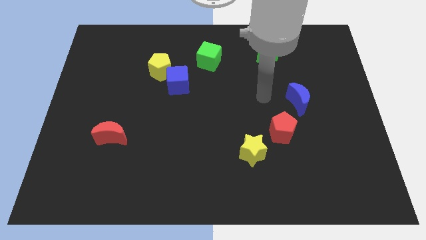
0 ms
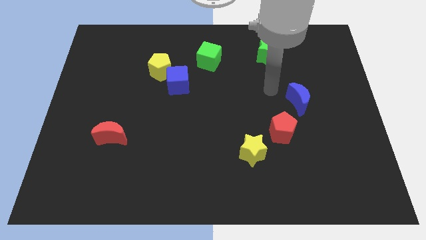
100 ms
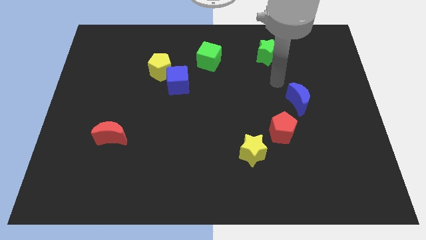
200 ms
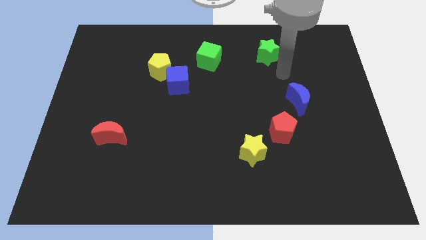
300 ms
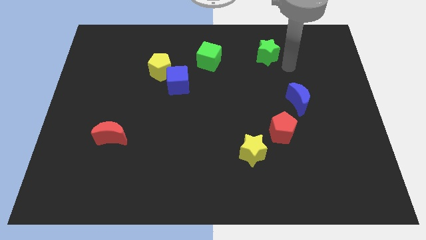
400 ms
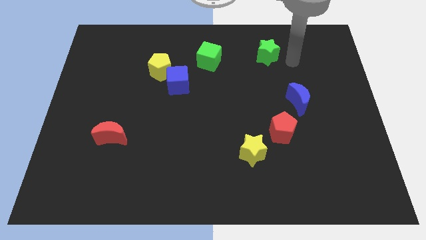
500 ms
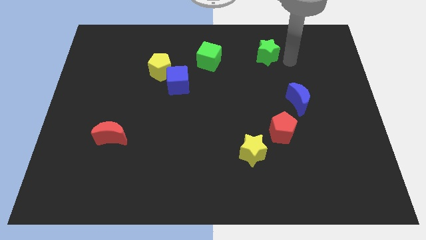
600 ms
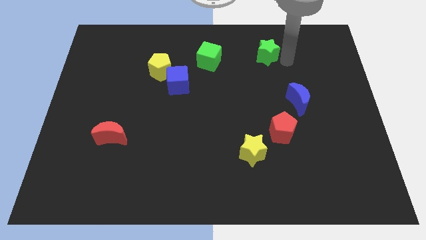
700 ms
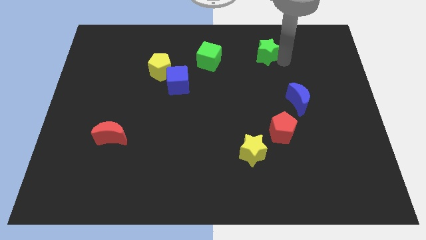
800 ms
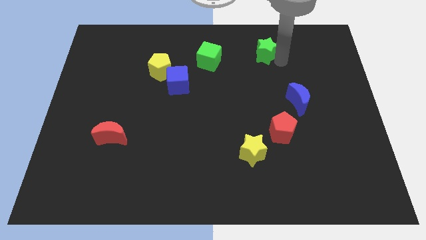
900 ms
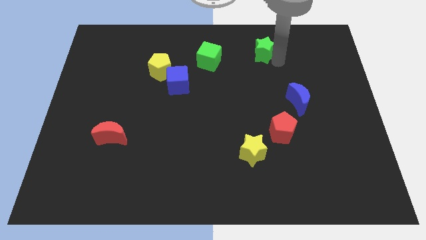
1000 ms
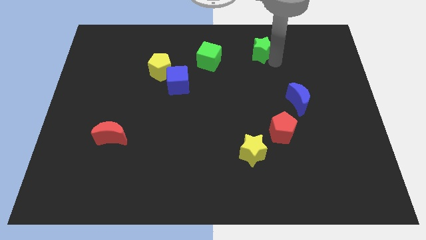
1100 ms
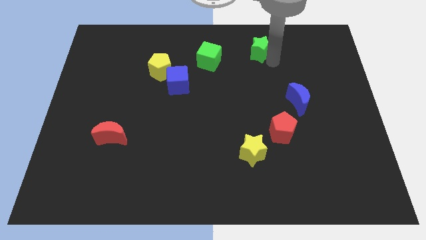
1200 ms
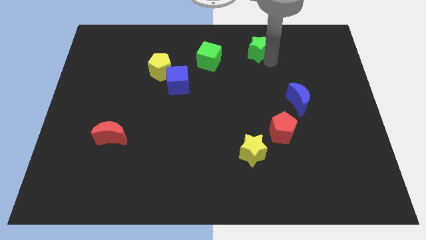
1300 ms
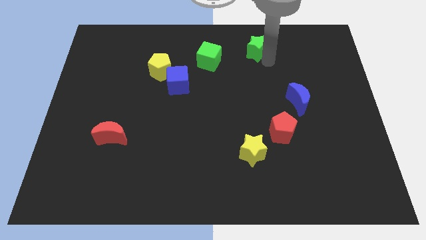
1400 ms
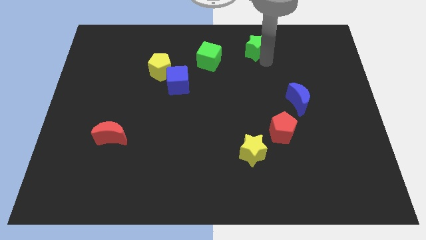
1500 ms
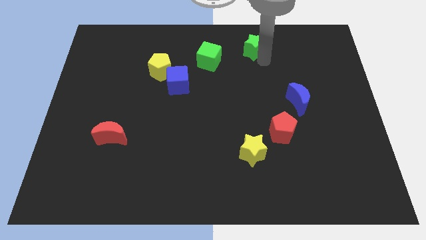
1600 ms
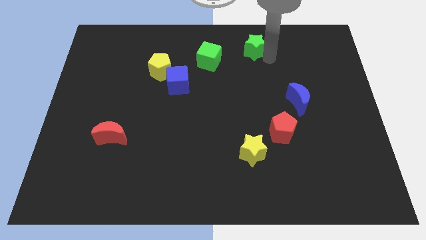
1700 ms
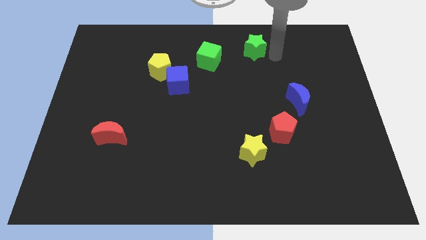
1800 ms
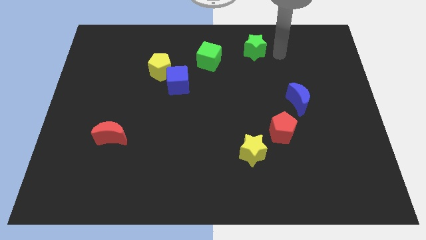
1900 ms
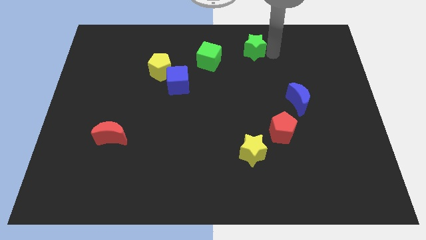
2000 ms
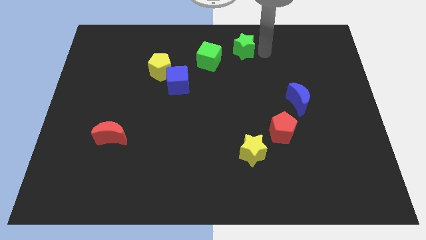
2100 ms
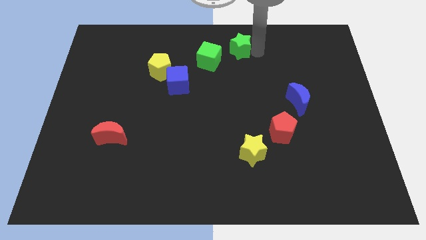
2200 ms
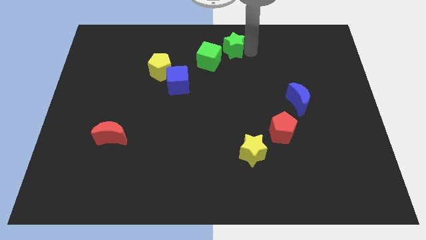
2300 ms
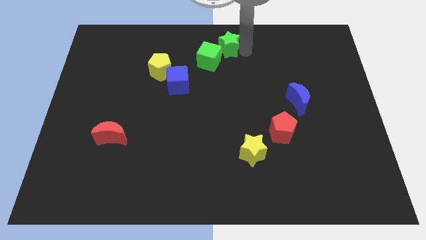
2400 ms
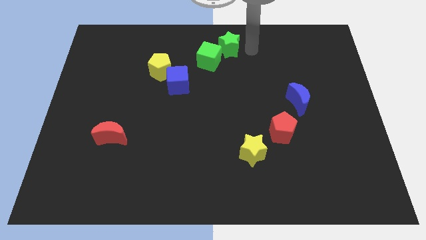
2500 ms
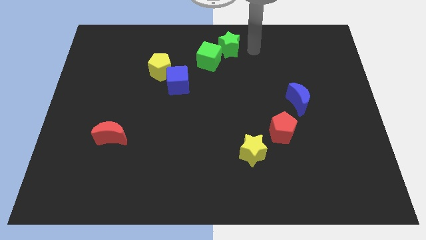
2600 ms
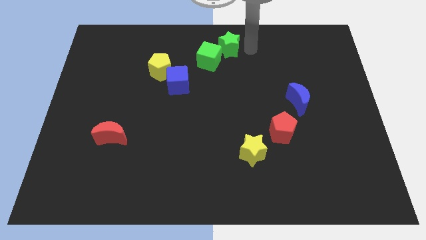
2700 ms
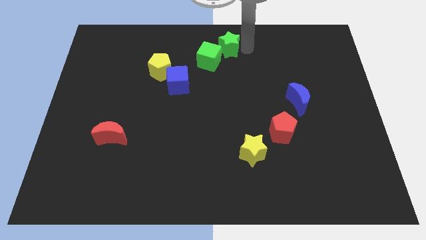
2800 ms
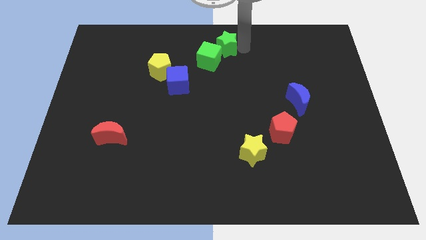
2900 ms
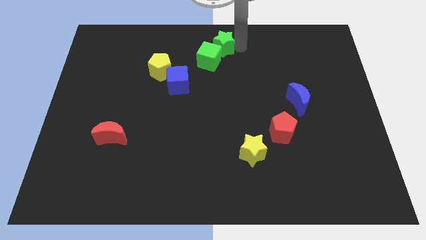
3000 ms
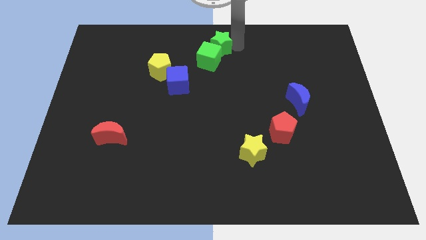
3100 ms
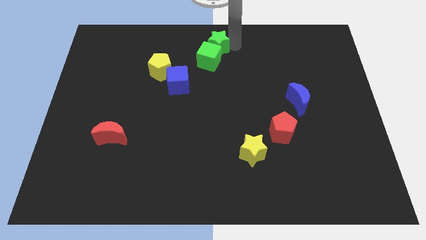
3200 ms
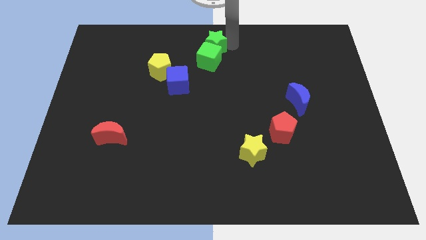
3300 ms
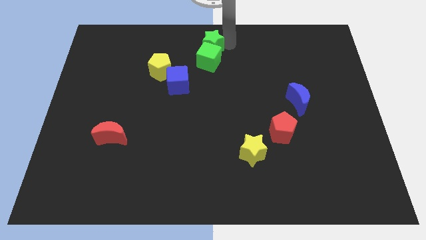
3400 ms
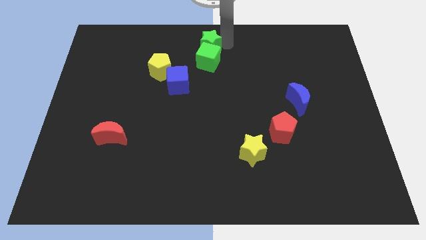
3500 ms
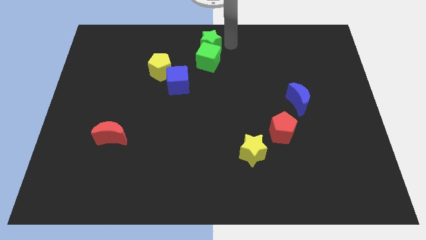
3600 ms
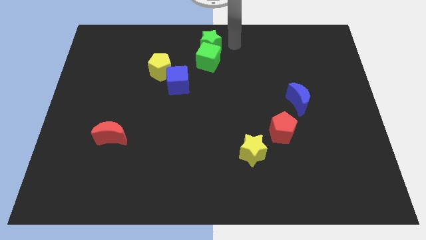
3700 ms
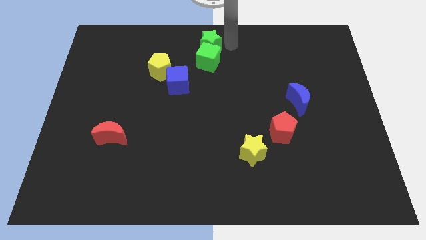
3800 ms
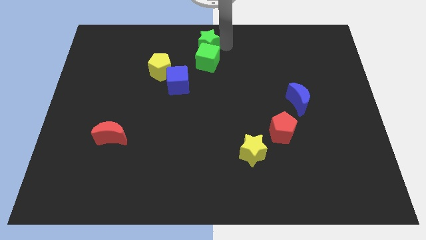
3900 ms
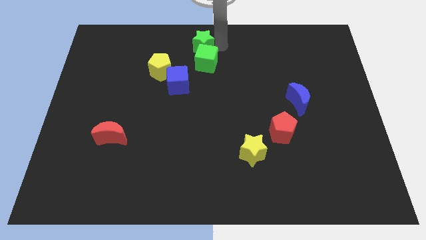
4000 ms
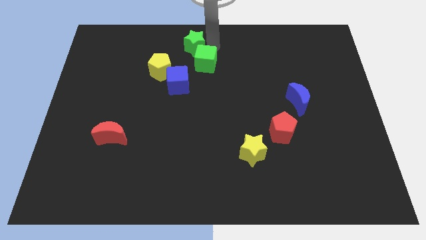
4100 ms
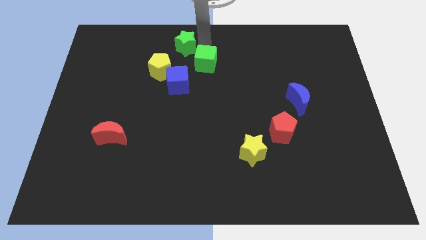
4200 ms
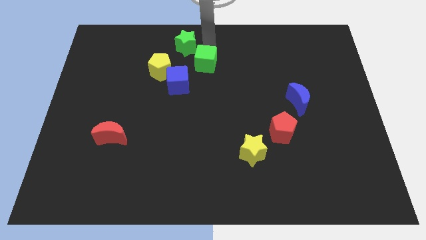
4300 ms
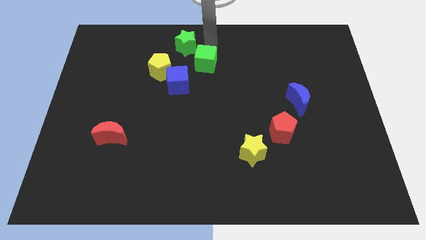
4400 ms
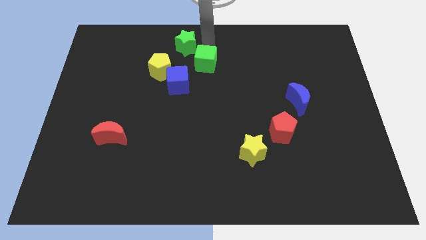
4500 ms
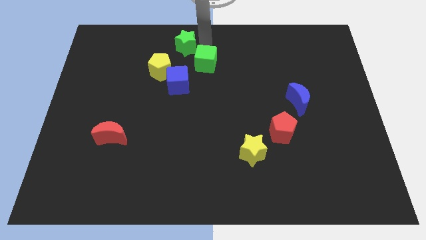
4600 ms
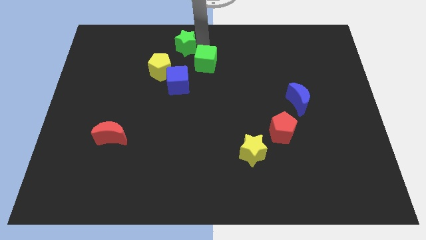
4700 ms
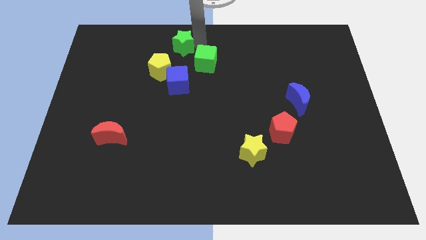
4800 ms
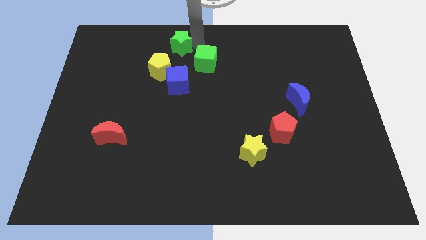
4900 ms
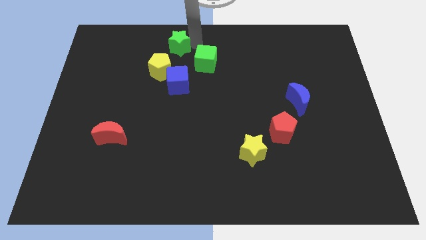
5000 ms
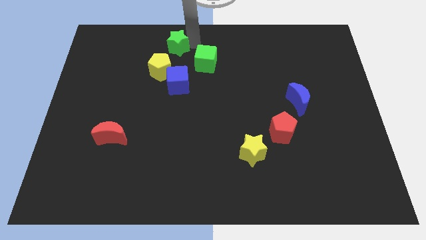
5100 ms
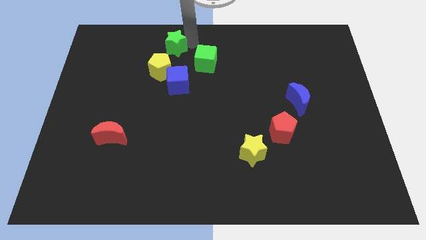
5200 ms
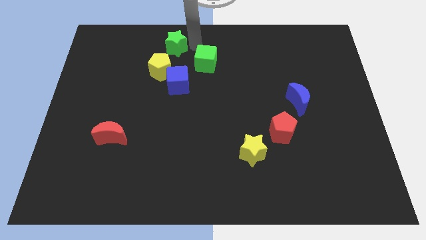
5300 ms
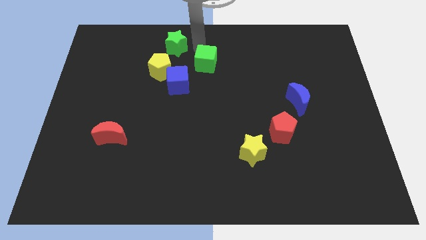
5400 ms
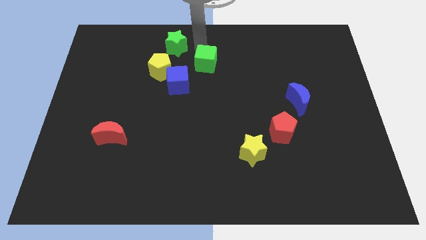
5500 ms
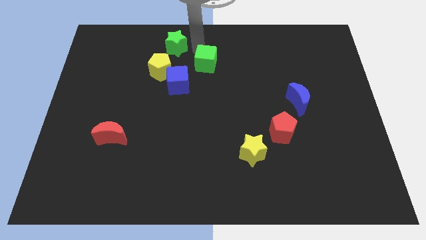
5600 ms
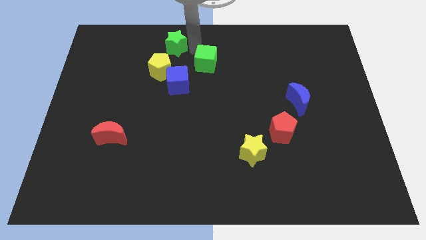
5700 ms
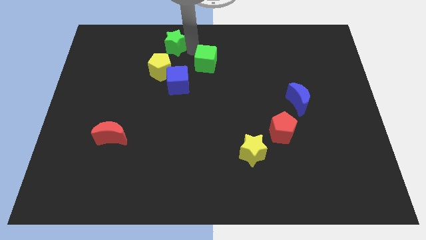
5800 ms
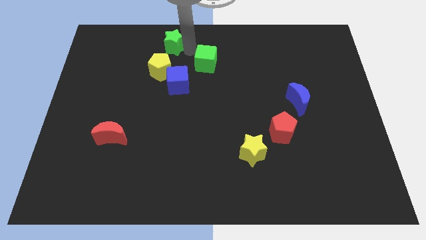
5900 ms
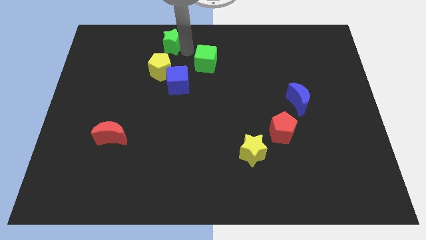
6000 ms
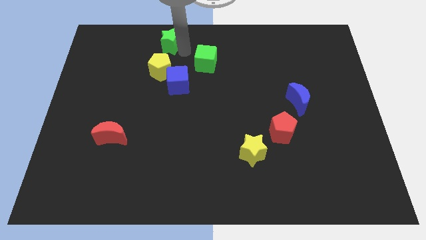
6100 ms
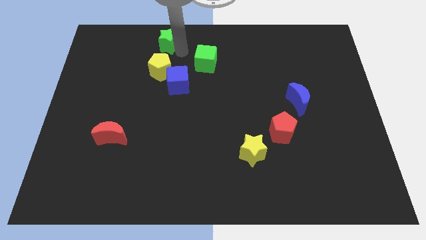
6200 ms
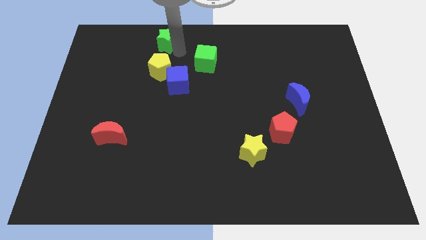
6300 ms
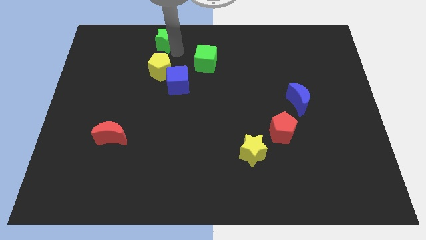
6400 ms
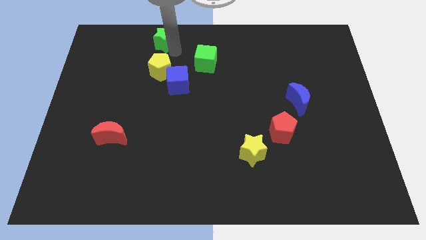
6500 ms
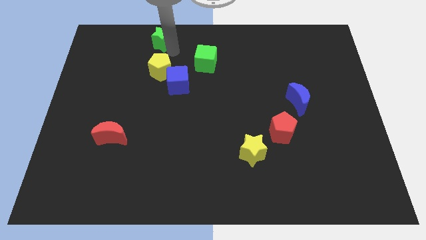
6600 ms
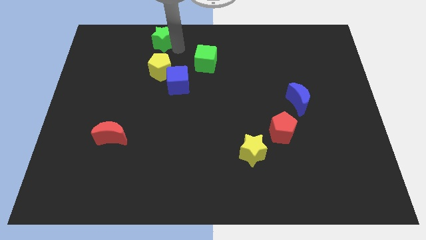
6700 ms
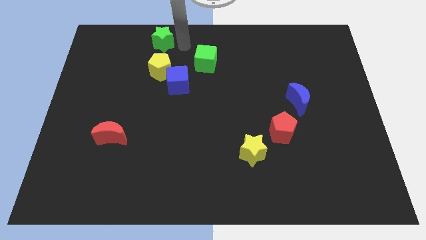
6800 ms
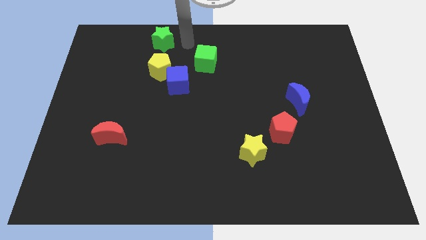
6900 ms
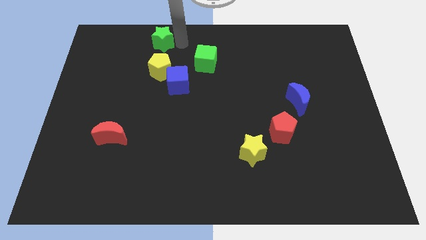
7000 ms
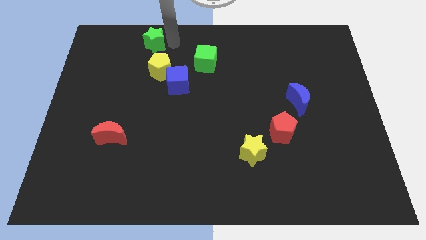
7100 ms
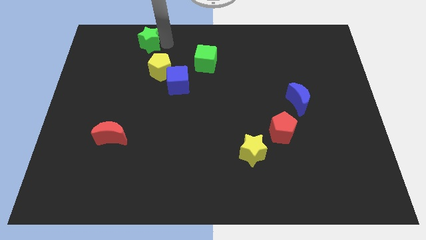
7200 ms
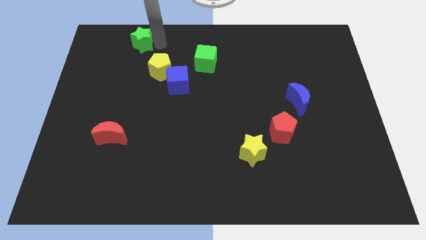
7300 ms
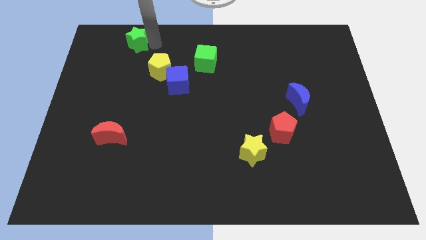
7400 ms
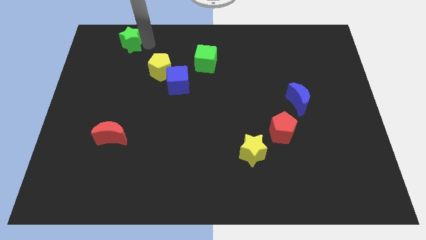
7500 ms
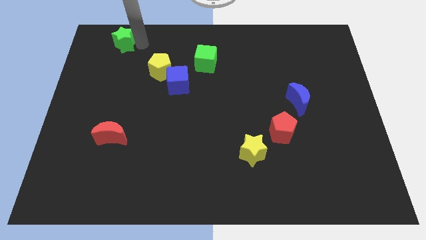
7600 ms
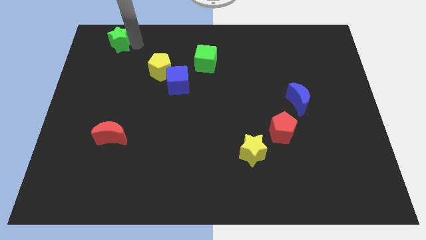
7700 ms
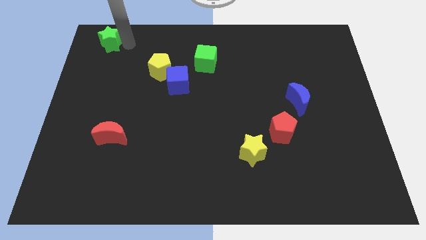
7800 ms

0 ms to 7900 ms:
put the green star to the top left corner
